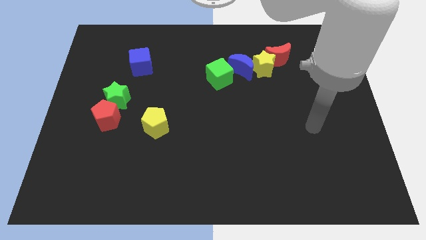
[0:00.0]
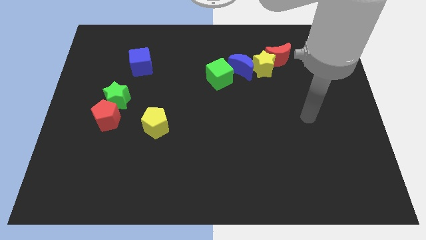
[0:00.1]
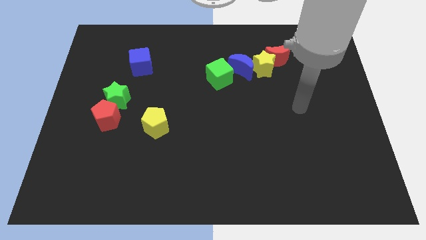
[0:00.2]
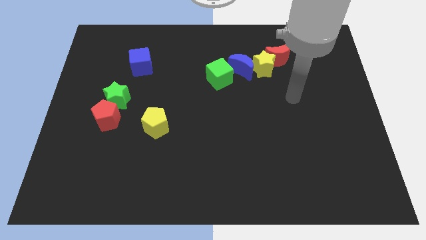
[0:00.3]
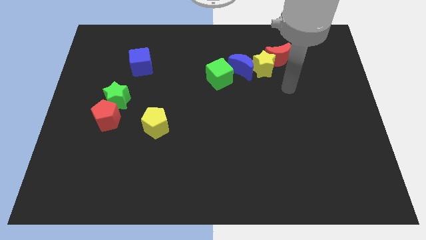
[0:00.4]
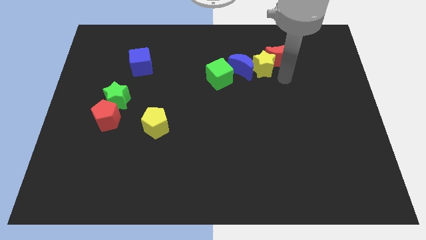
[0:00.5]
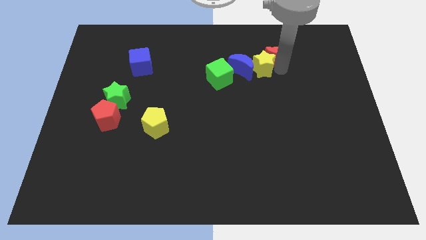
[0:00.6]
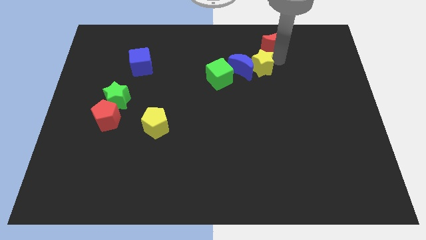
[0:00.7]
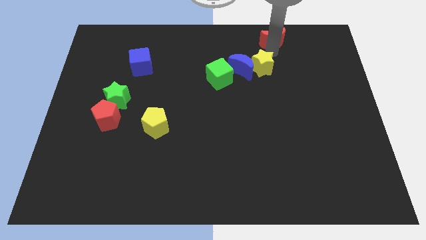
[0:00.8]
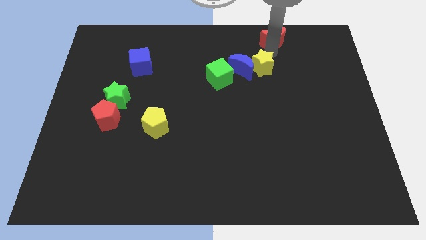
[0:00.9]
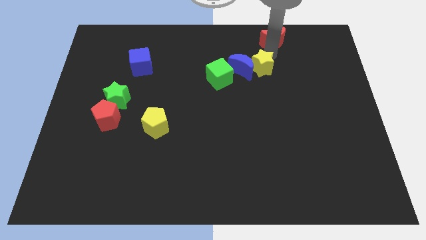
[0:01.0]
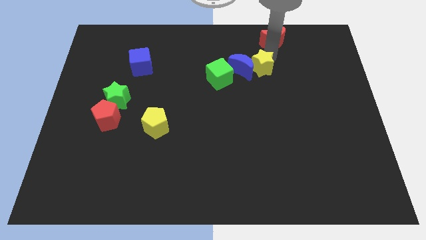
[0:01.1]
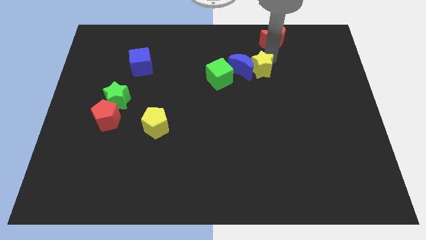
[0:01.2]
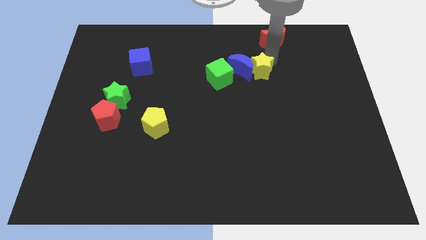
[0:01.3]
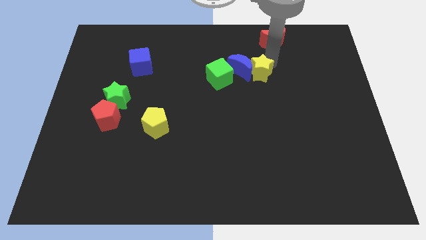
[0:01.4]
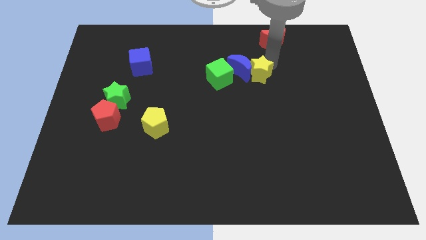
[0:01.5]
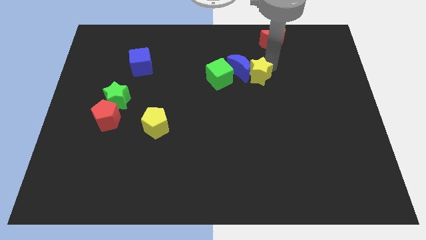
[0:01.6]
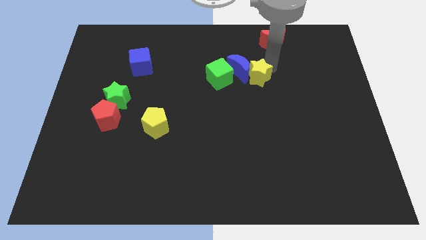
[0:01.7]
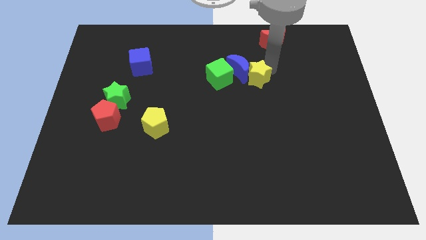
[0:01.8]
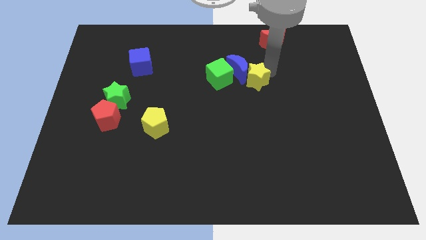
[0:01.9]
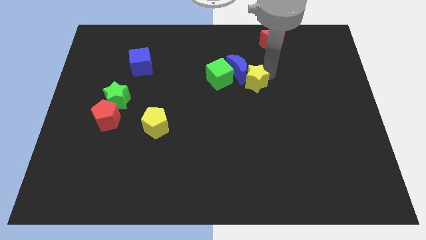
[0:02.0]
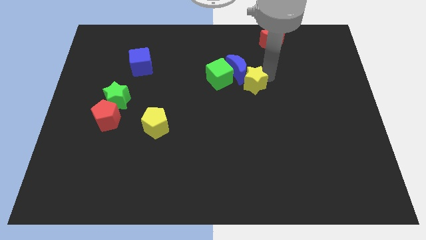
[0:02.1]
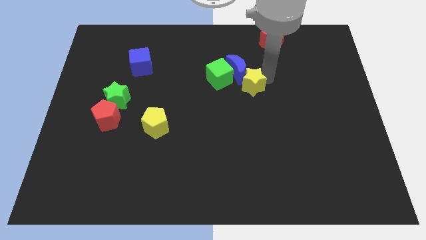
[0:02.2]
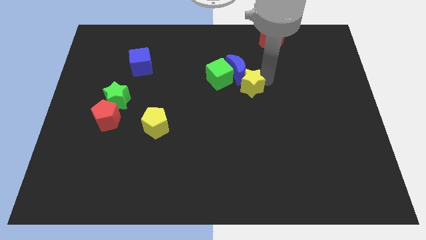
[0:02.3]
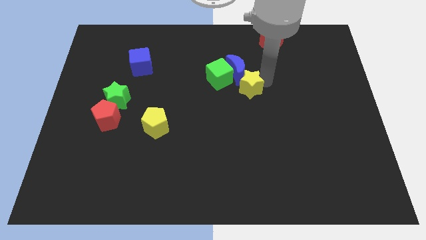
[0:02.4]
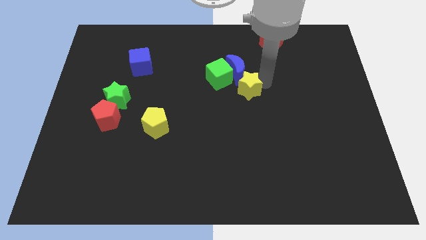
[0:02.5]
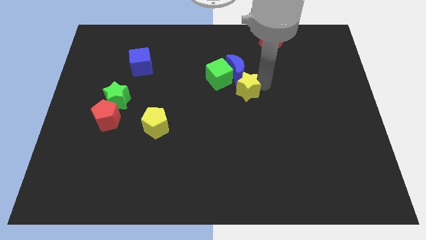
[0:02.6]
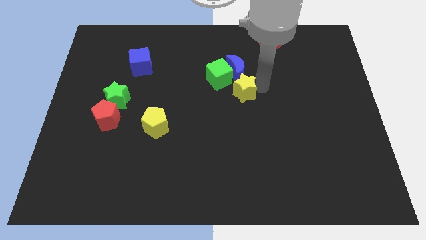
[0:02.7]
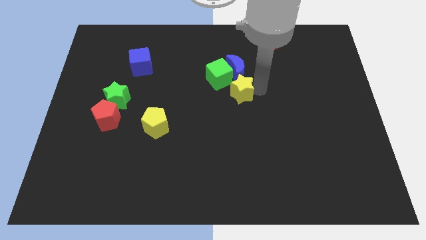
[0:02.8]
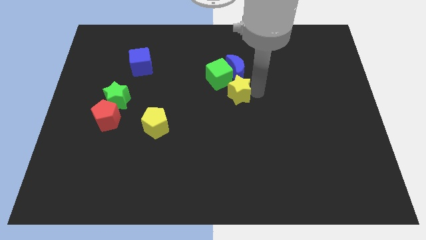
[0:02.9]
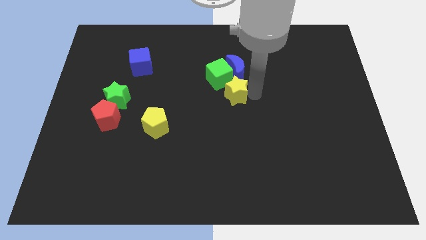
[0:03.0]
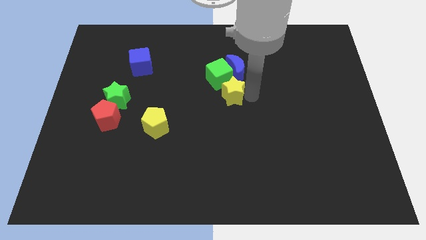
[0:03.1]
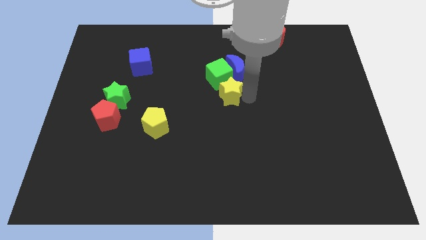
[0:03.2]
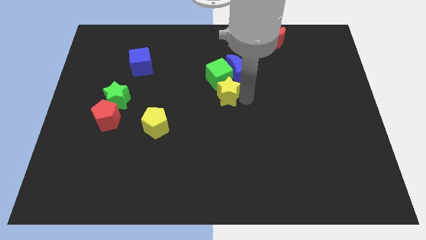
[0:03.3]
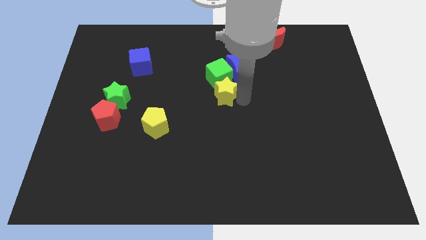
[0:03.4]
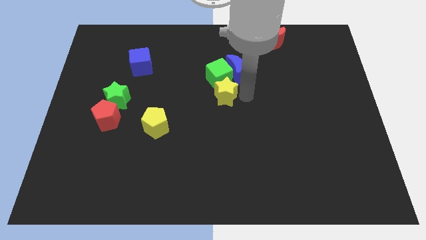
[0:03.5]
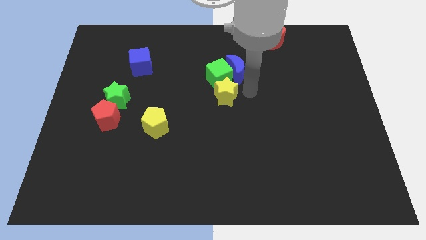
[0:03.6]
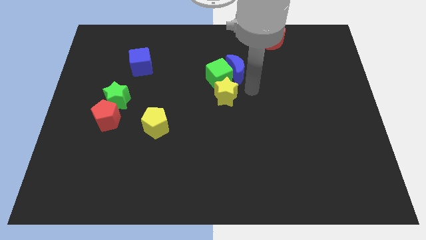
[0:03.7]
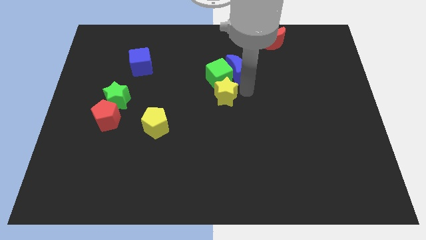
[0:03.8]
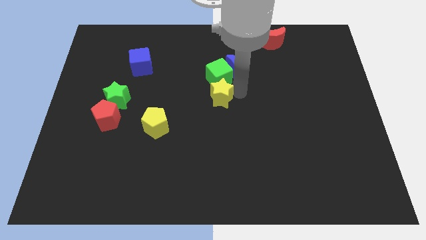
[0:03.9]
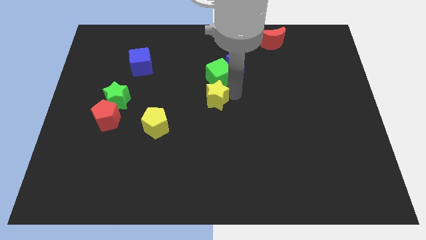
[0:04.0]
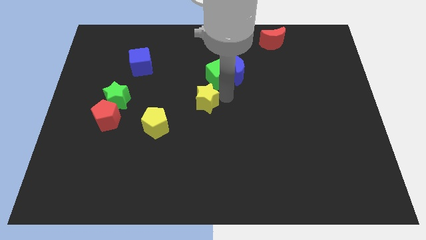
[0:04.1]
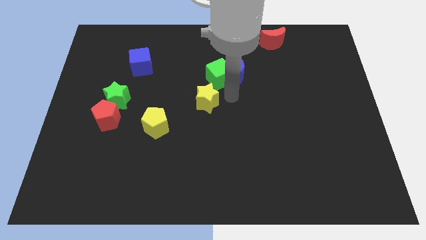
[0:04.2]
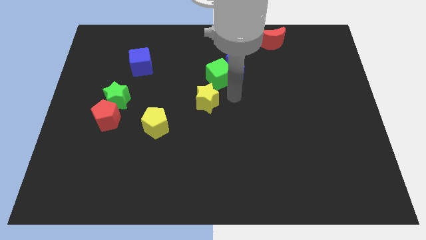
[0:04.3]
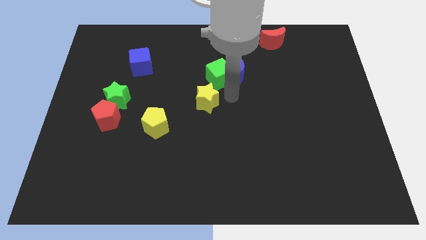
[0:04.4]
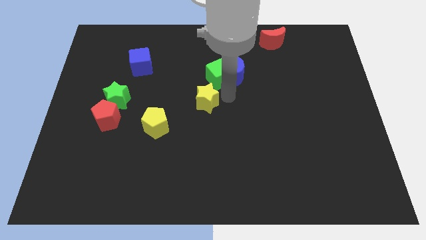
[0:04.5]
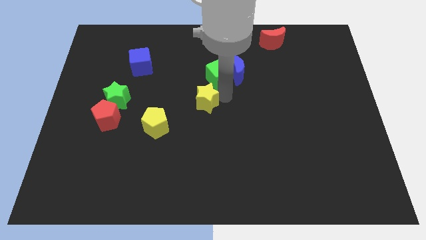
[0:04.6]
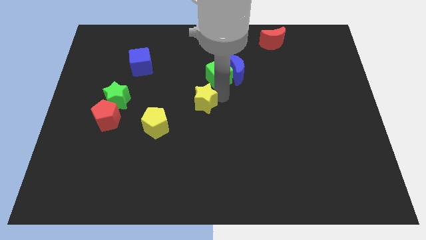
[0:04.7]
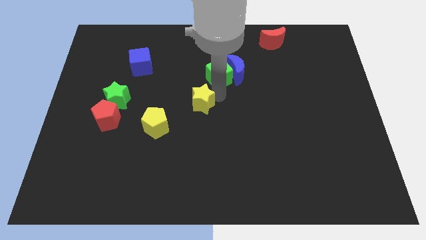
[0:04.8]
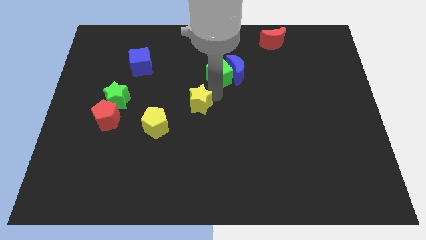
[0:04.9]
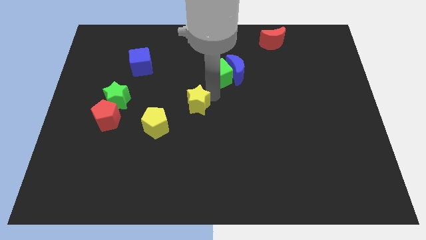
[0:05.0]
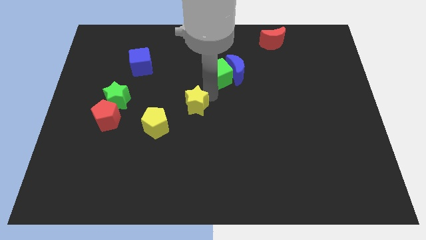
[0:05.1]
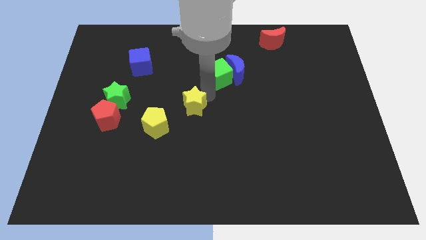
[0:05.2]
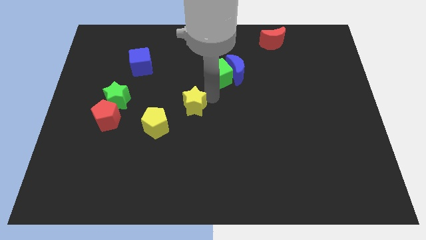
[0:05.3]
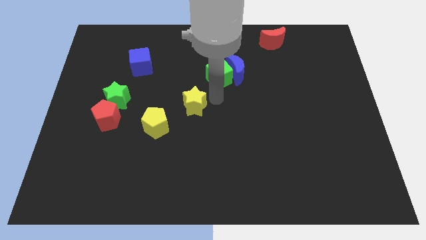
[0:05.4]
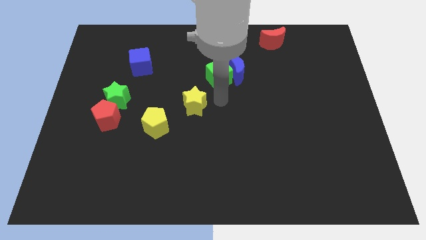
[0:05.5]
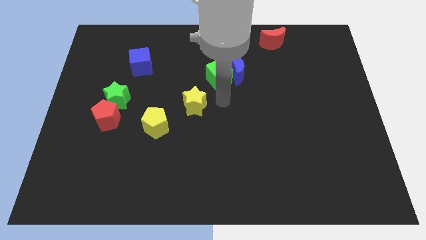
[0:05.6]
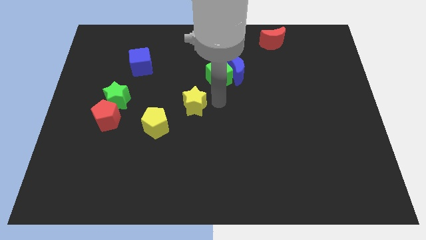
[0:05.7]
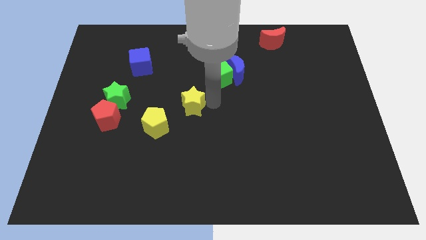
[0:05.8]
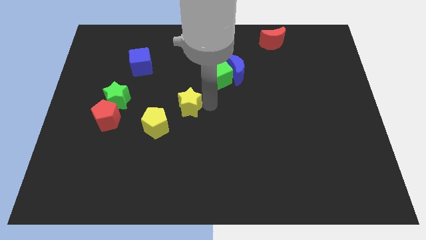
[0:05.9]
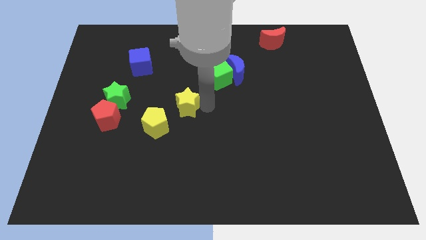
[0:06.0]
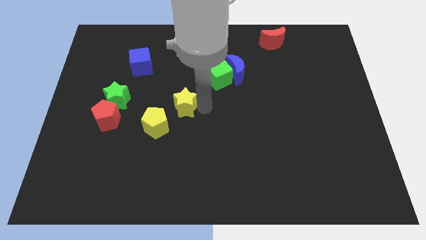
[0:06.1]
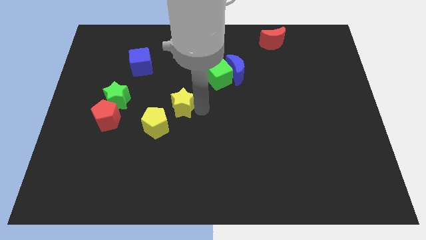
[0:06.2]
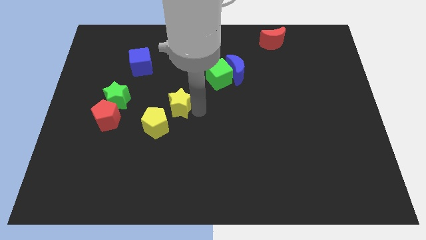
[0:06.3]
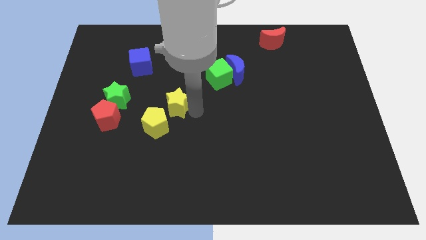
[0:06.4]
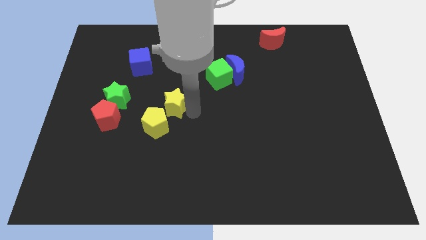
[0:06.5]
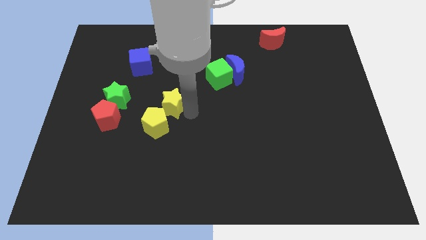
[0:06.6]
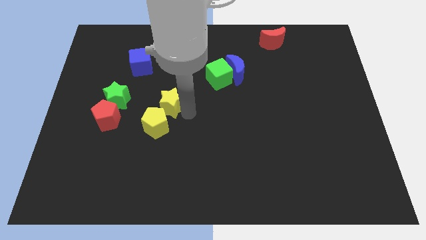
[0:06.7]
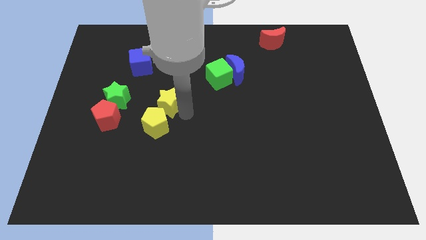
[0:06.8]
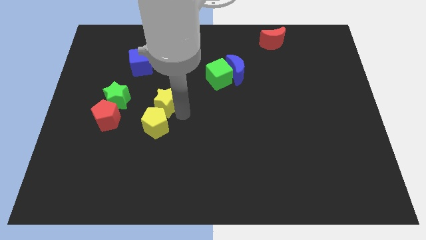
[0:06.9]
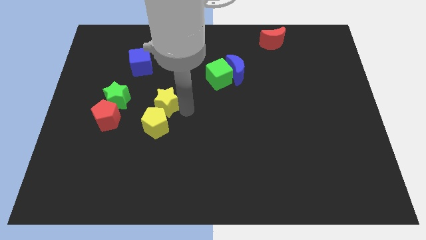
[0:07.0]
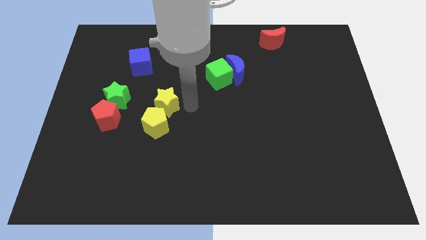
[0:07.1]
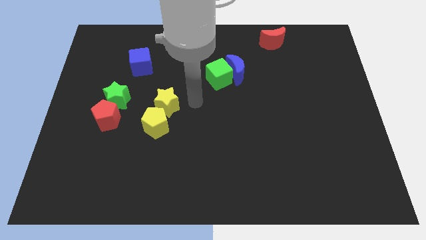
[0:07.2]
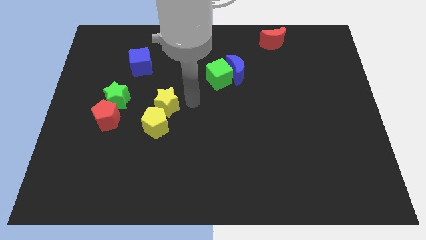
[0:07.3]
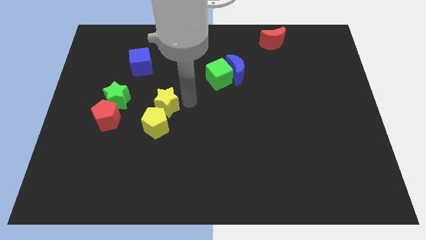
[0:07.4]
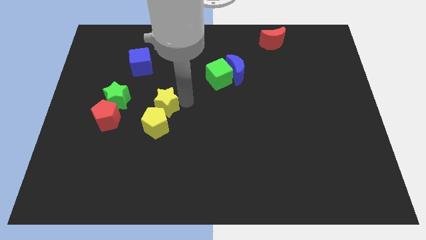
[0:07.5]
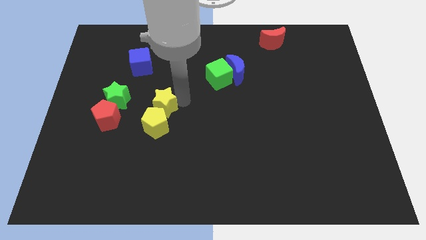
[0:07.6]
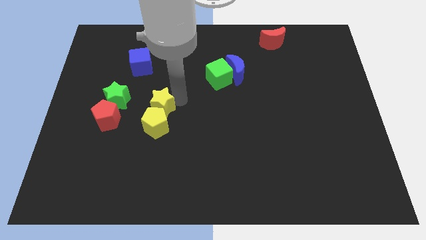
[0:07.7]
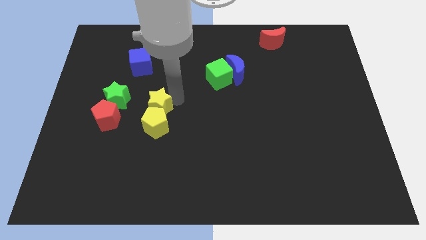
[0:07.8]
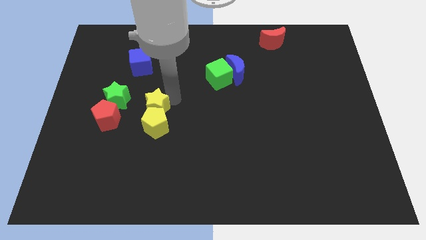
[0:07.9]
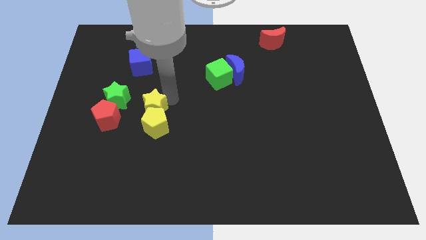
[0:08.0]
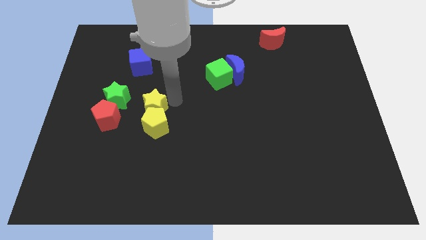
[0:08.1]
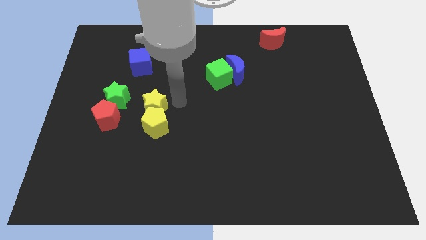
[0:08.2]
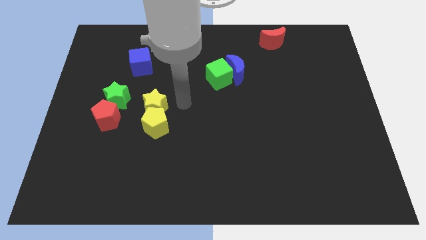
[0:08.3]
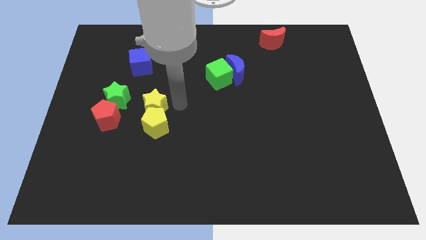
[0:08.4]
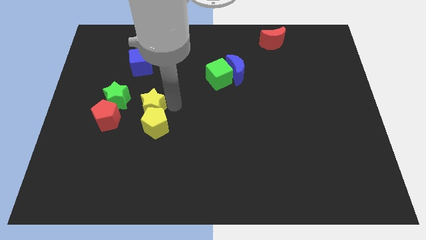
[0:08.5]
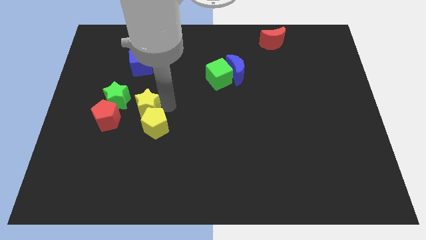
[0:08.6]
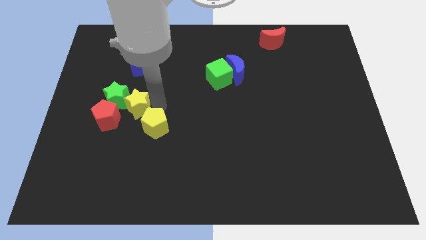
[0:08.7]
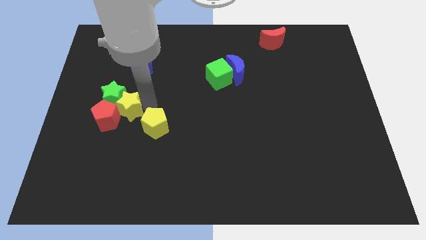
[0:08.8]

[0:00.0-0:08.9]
slide the yellow star next to the red pentagon
